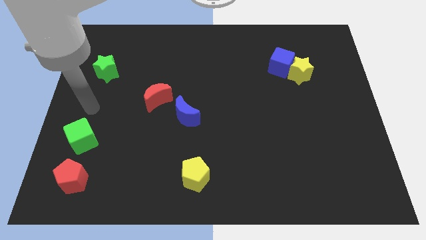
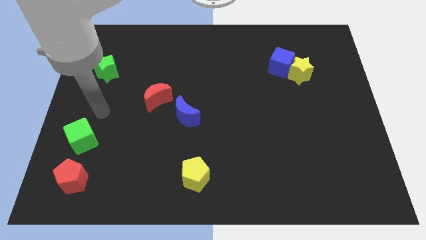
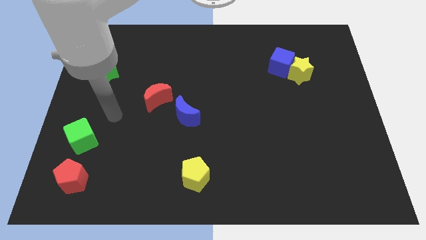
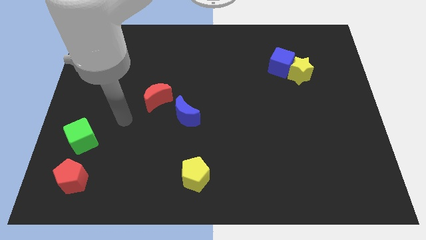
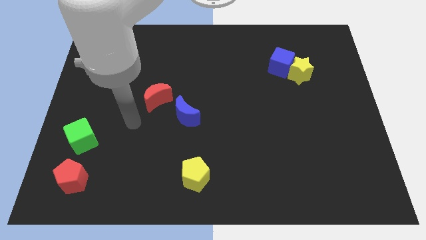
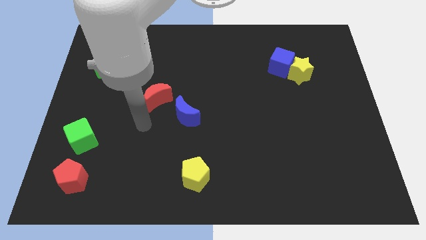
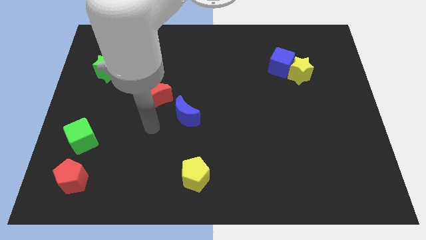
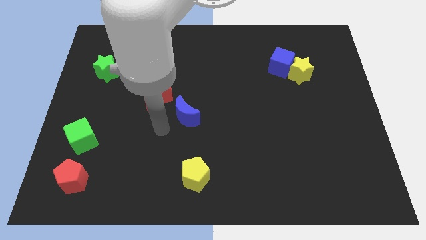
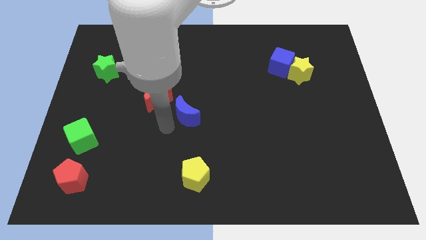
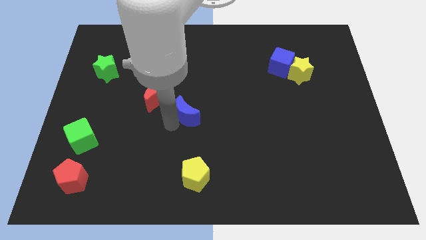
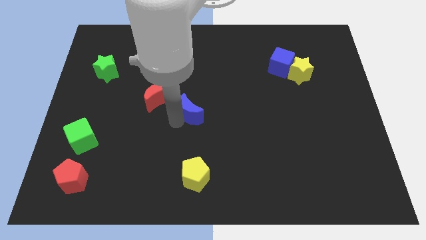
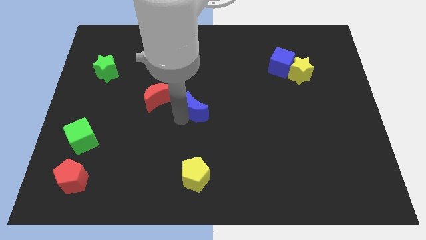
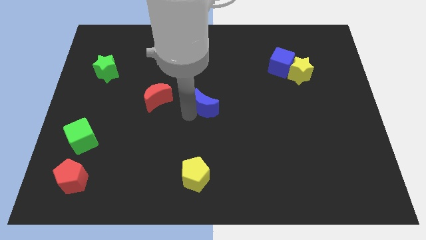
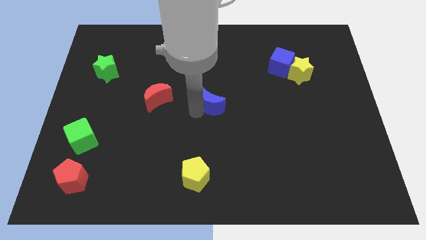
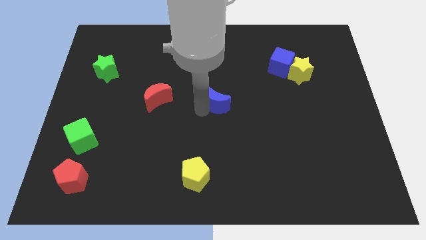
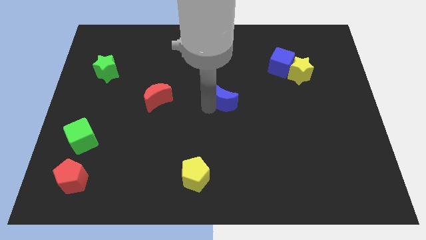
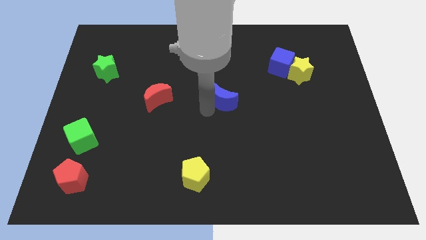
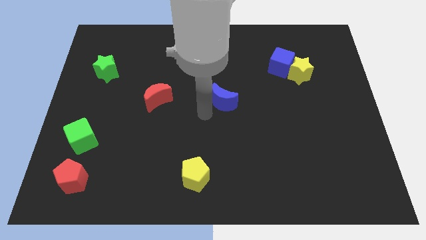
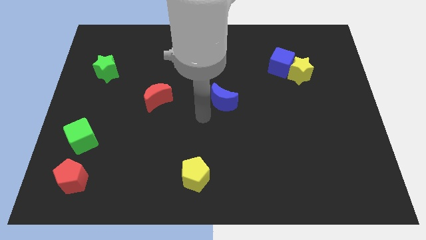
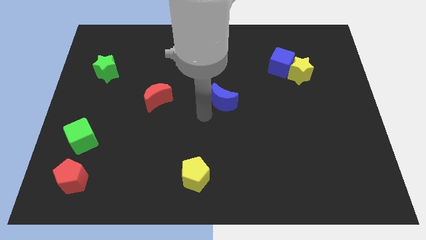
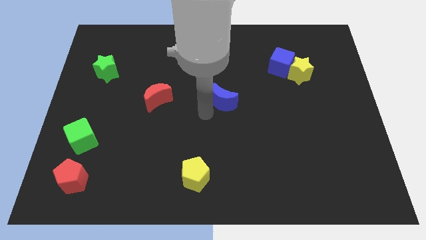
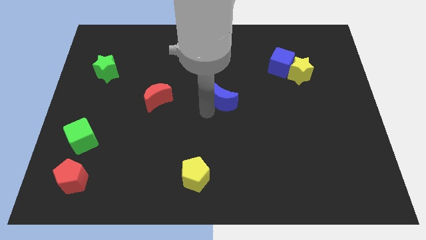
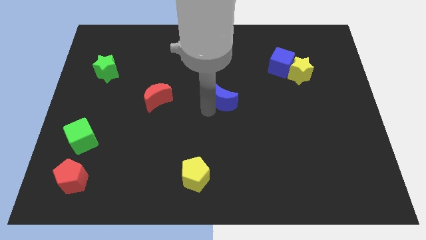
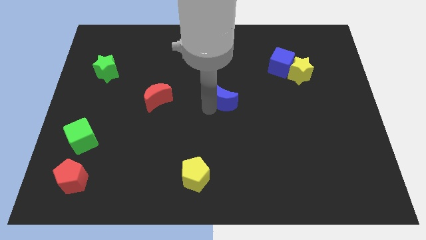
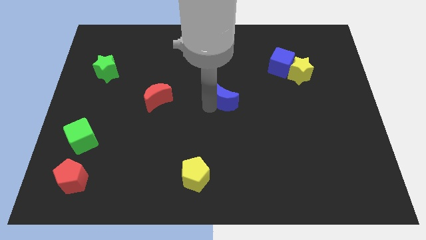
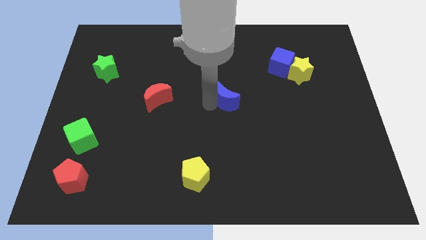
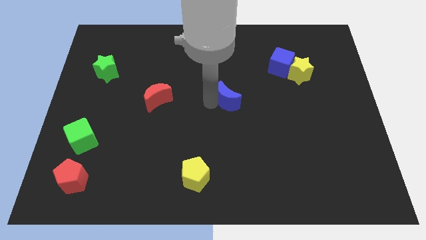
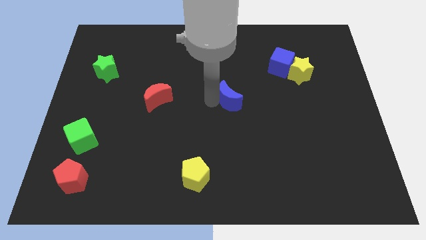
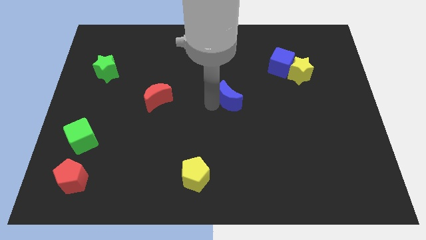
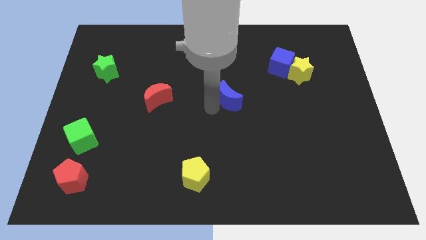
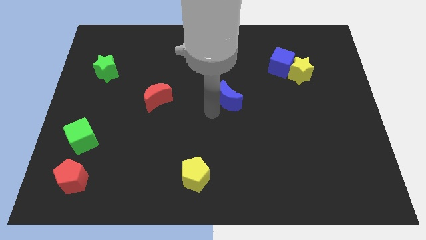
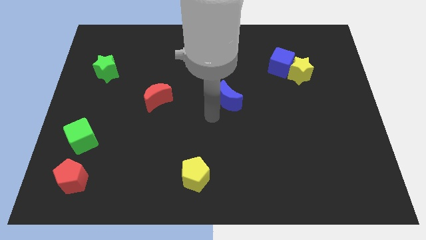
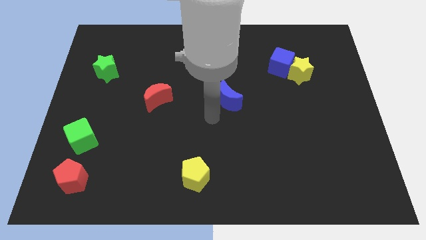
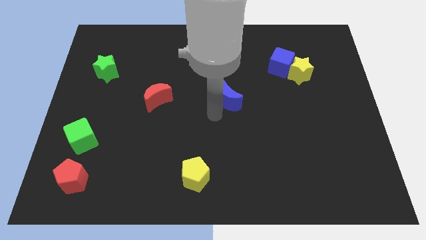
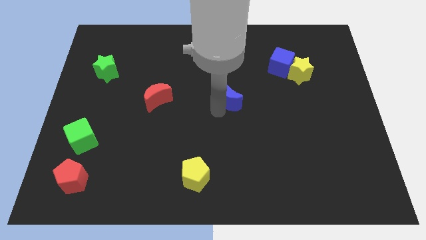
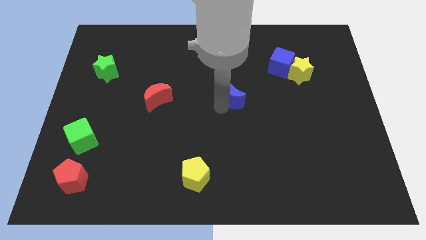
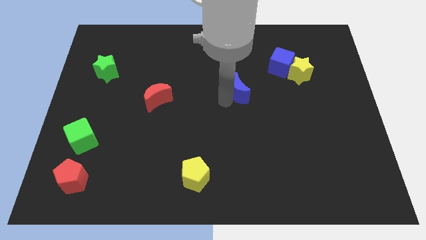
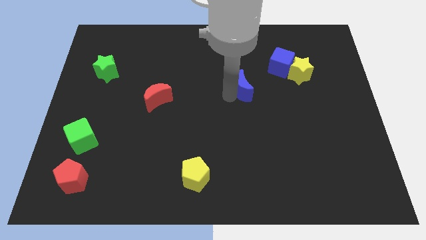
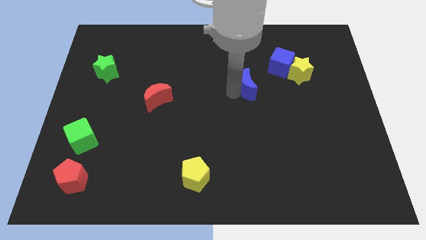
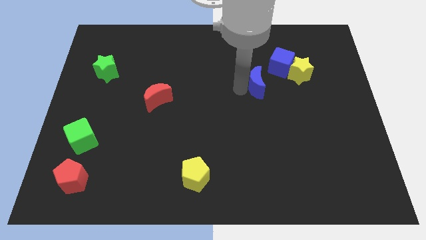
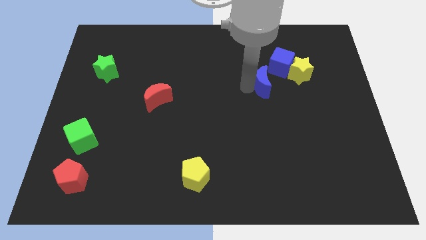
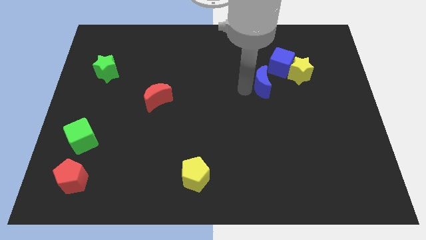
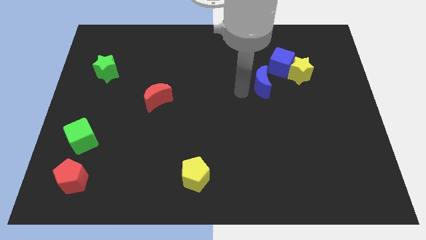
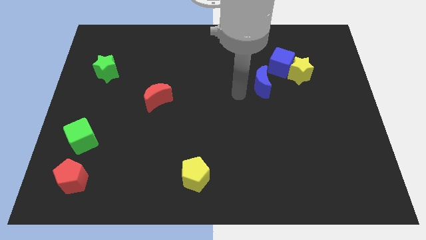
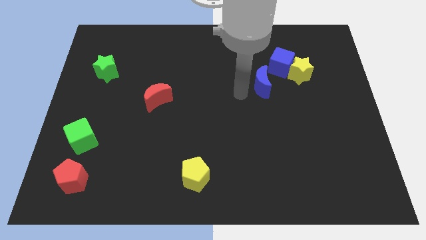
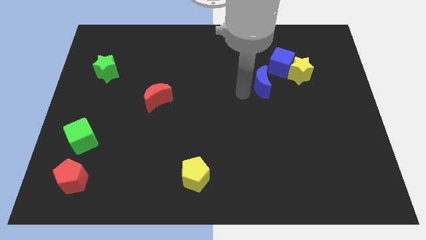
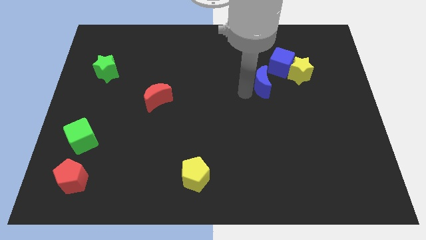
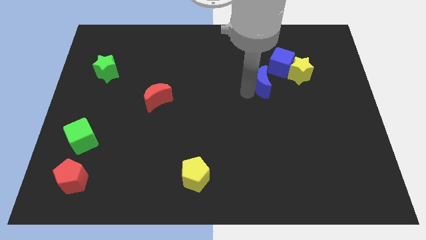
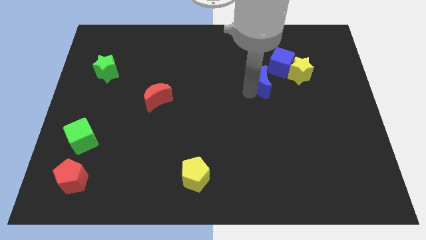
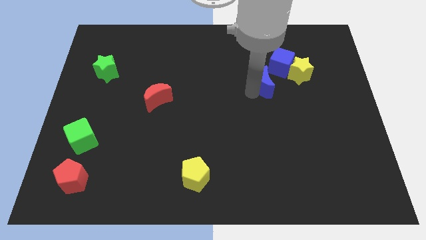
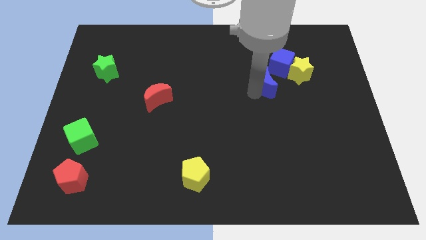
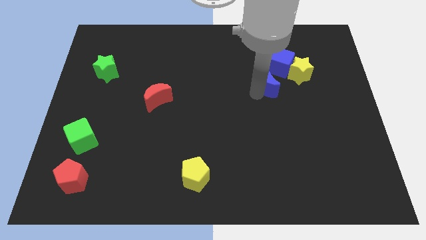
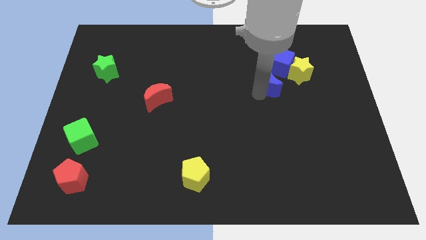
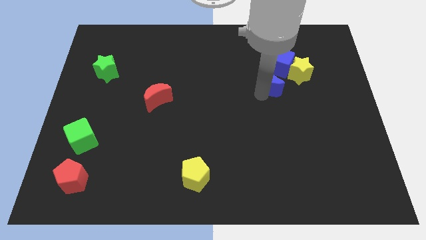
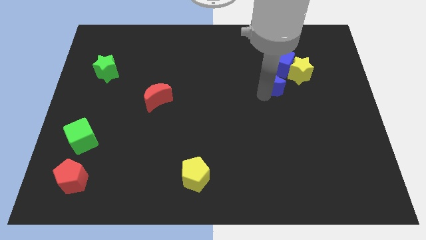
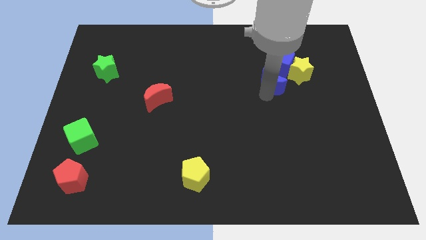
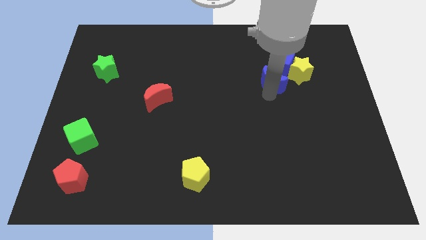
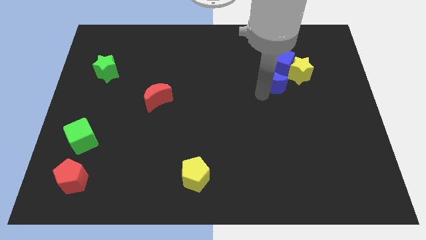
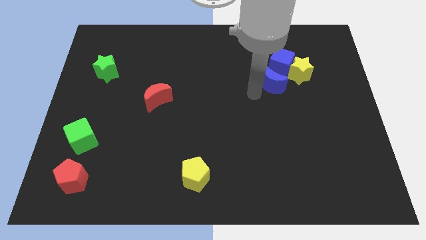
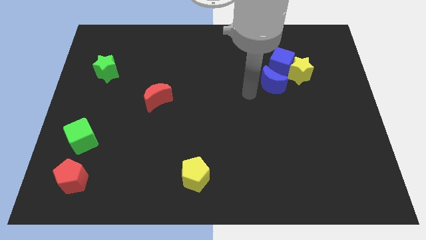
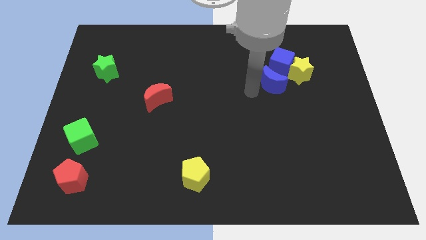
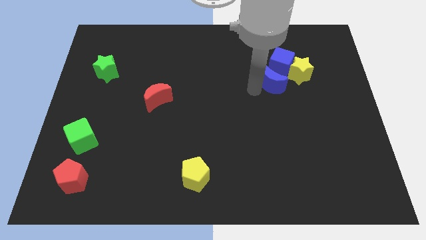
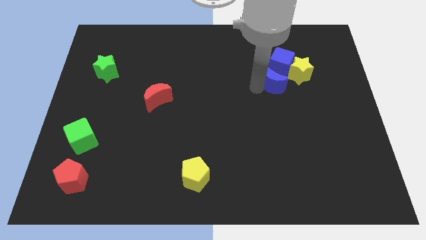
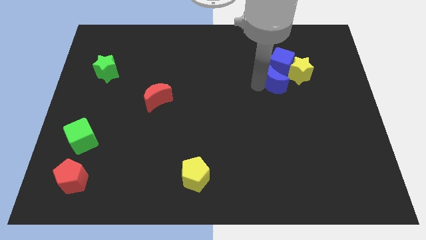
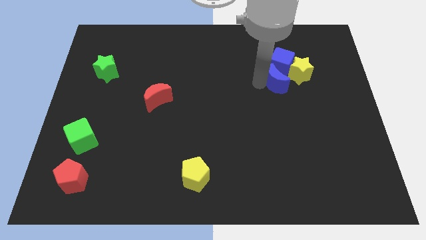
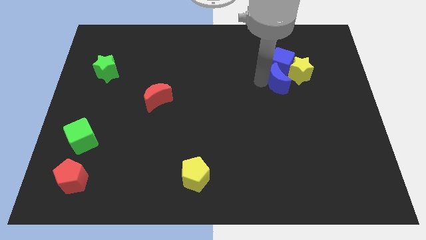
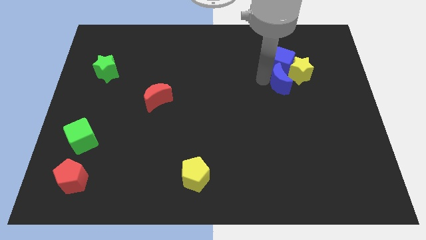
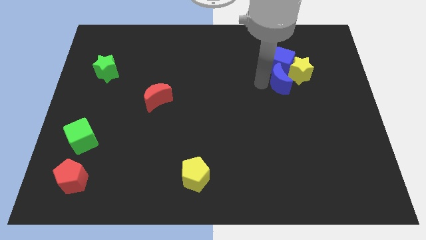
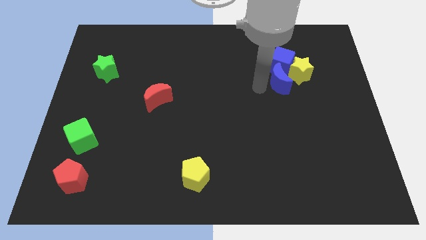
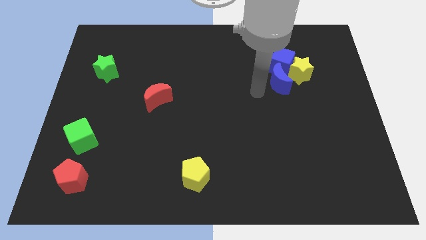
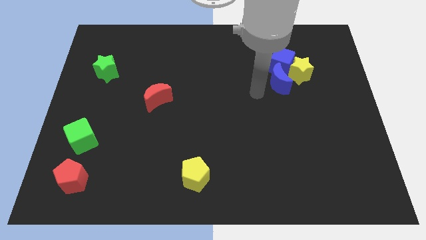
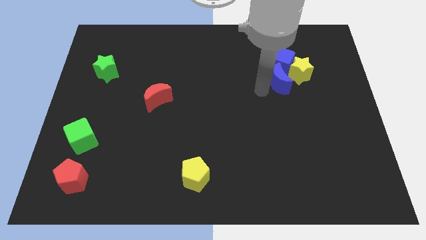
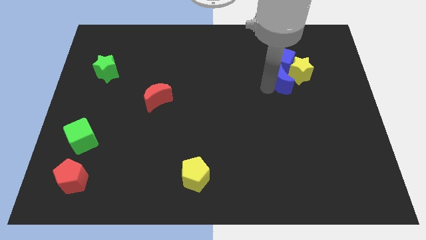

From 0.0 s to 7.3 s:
push the blue moon next to the yellow star
